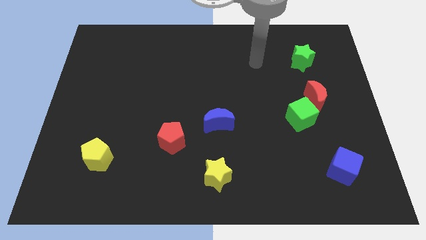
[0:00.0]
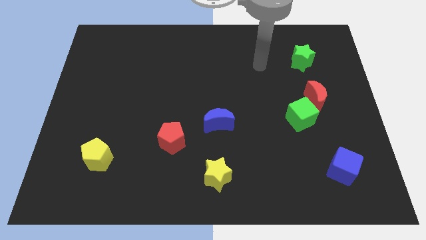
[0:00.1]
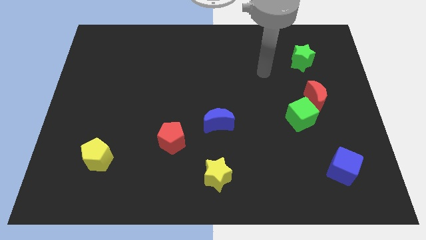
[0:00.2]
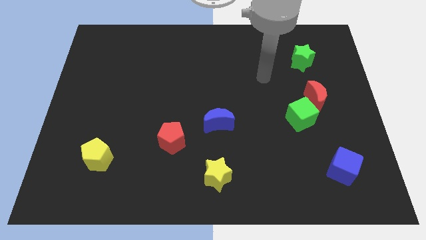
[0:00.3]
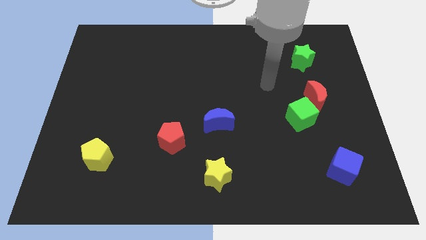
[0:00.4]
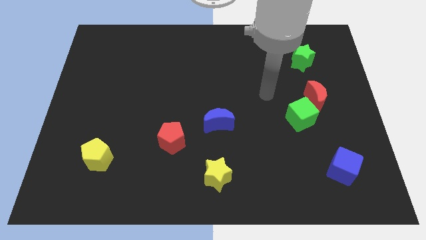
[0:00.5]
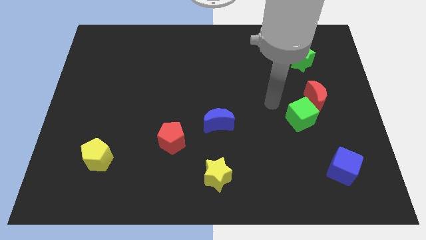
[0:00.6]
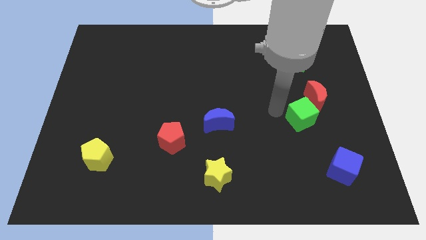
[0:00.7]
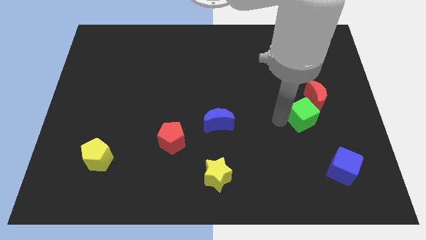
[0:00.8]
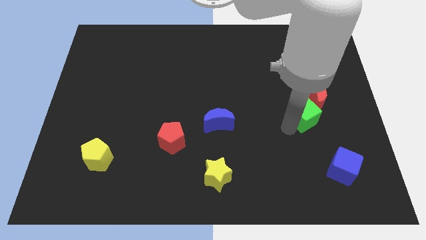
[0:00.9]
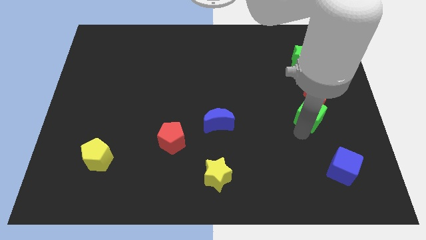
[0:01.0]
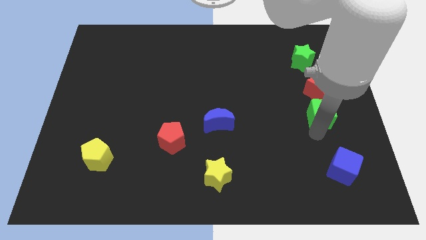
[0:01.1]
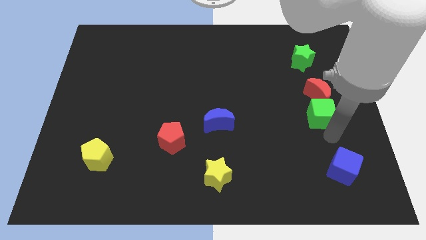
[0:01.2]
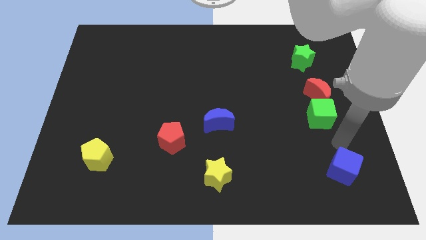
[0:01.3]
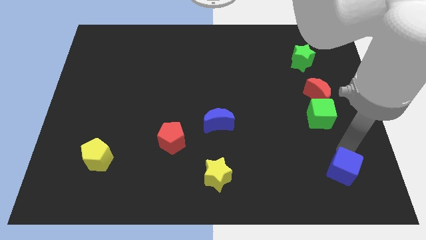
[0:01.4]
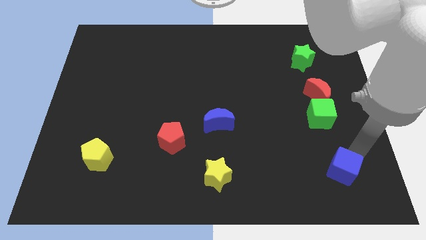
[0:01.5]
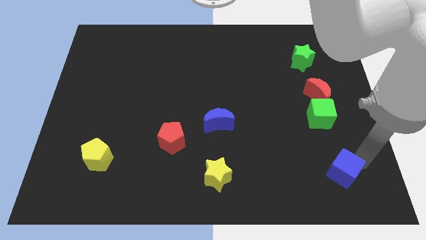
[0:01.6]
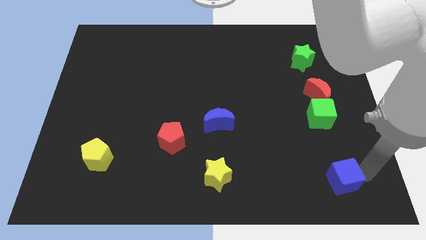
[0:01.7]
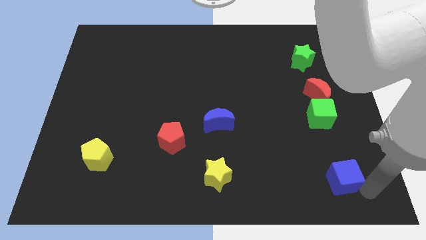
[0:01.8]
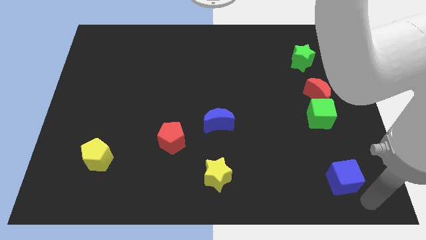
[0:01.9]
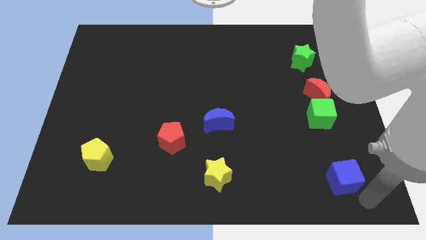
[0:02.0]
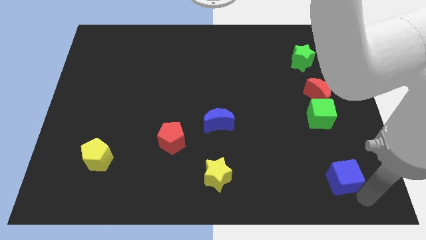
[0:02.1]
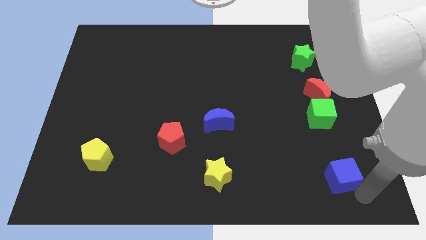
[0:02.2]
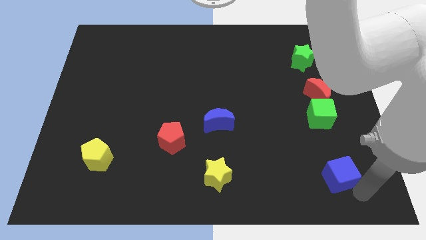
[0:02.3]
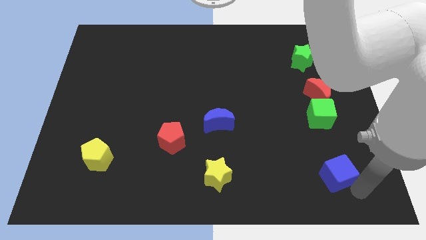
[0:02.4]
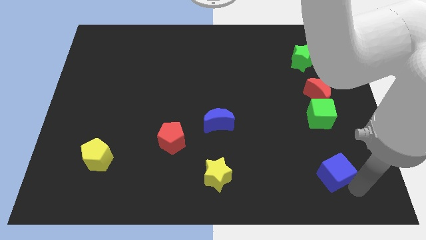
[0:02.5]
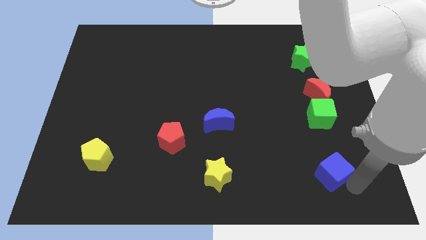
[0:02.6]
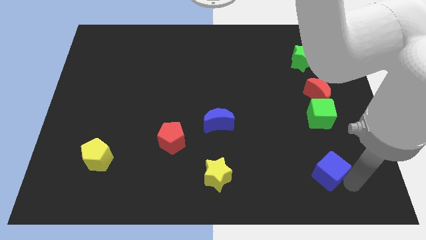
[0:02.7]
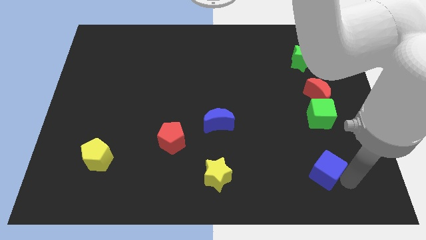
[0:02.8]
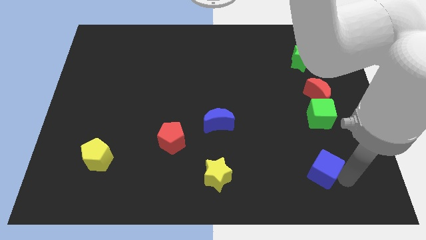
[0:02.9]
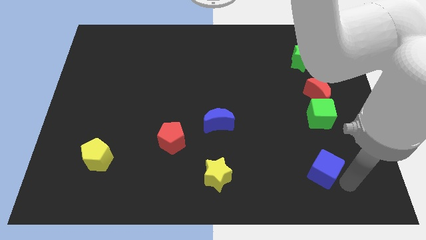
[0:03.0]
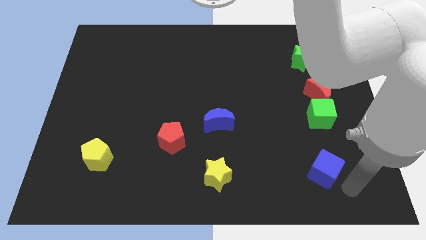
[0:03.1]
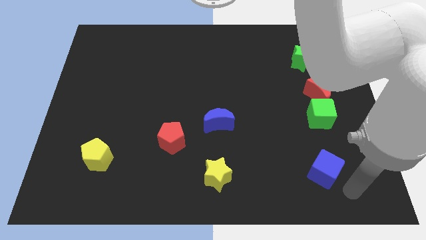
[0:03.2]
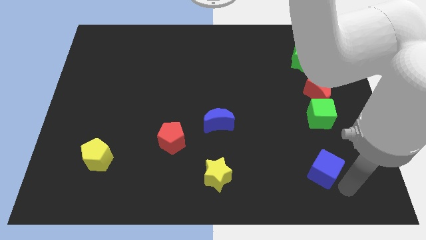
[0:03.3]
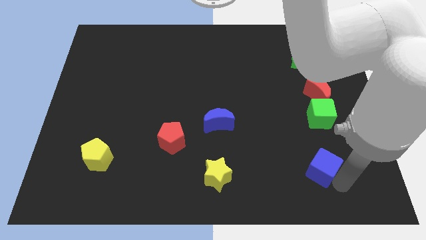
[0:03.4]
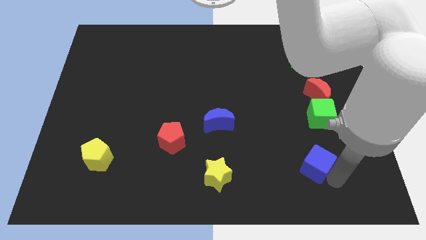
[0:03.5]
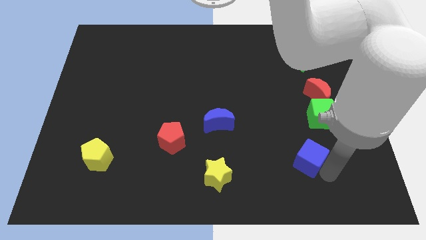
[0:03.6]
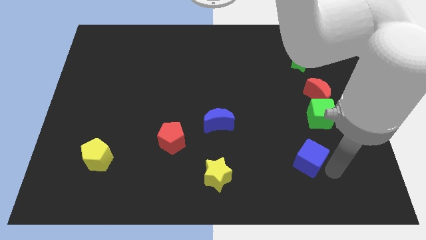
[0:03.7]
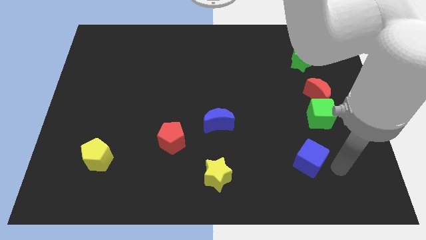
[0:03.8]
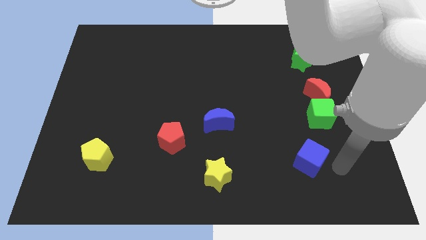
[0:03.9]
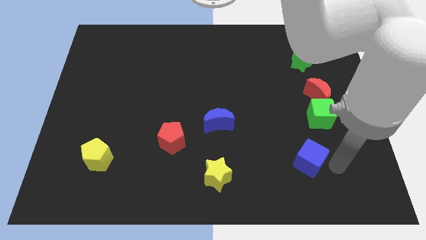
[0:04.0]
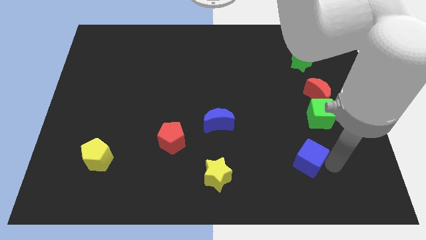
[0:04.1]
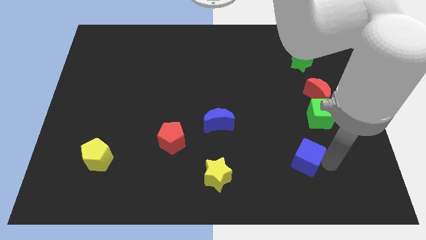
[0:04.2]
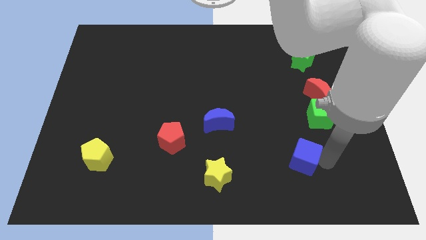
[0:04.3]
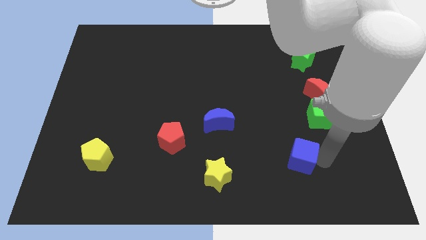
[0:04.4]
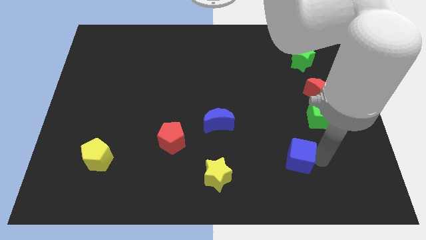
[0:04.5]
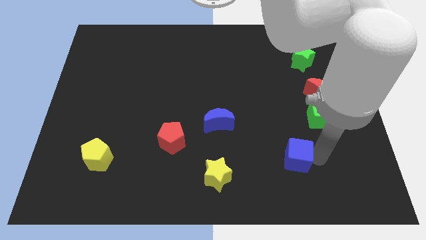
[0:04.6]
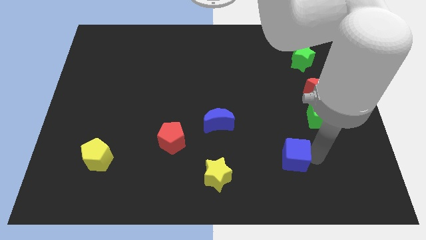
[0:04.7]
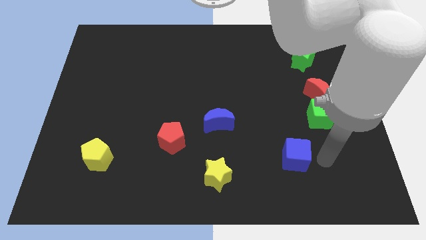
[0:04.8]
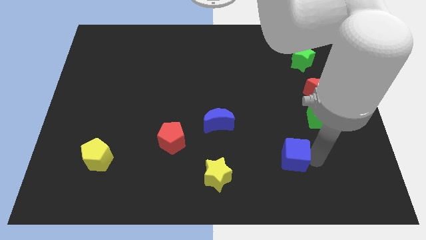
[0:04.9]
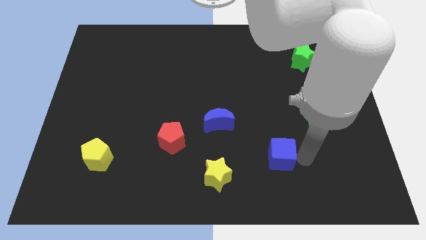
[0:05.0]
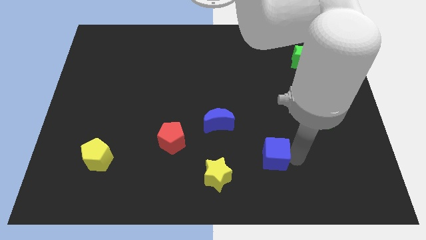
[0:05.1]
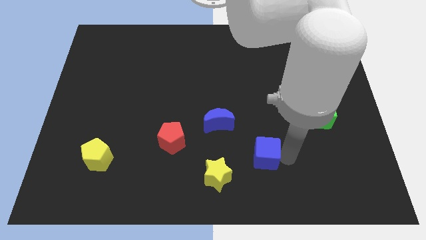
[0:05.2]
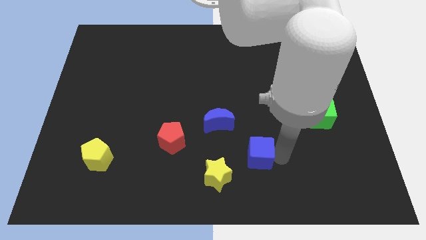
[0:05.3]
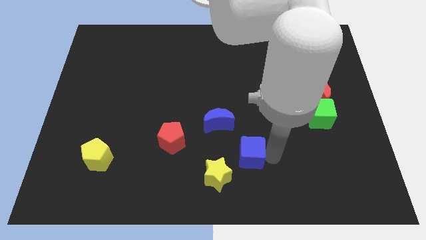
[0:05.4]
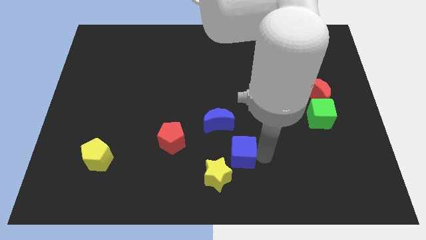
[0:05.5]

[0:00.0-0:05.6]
slide the blue cube to the left

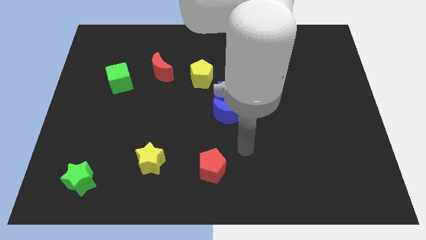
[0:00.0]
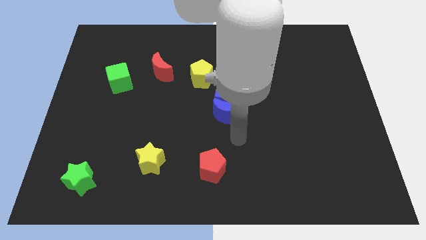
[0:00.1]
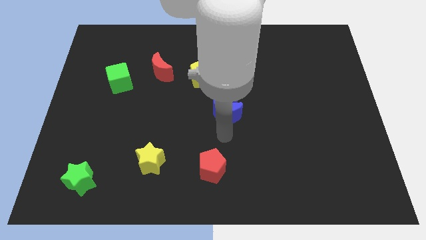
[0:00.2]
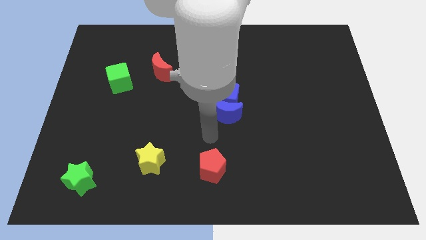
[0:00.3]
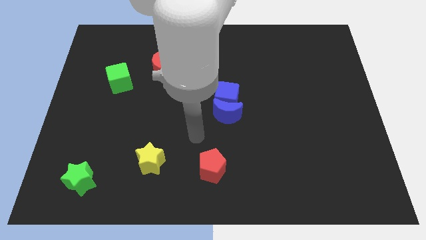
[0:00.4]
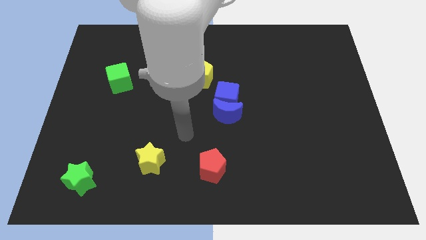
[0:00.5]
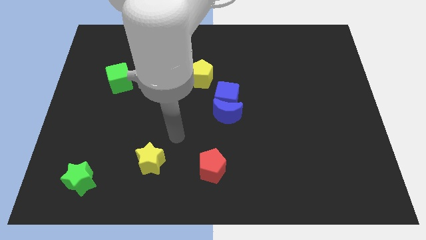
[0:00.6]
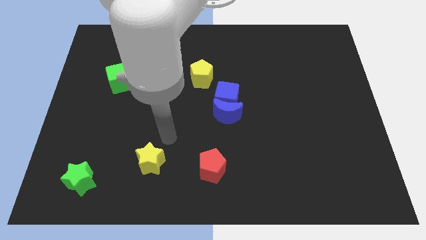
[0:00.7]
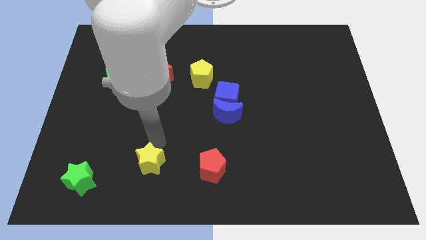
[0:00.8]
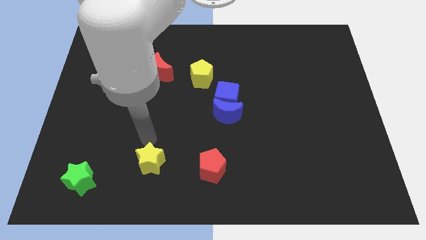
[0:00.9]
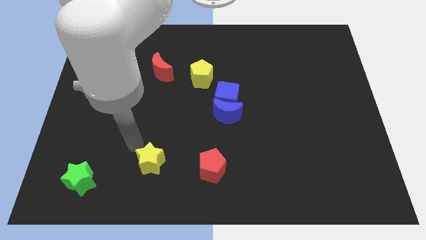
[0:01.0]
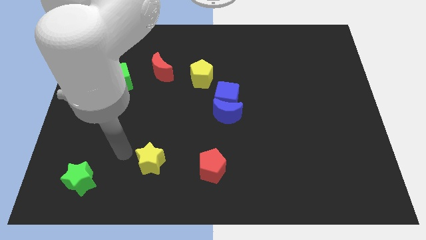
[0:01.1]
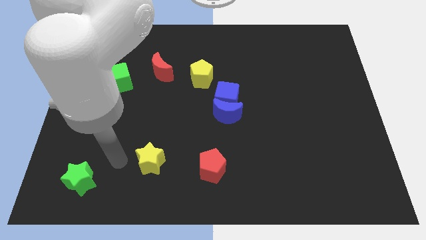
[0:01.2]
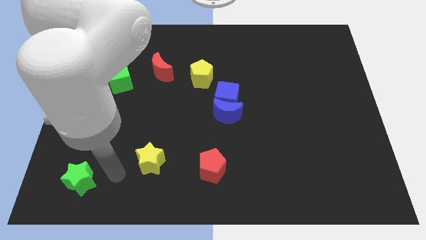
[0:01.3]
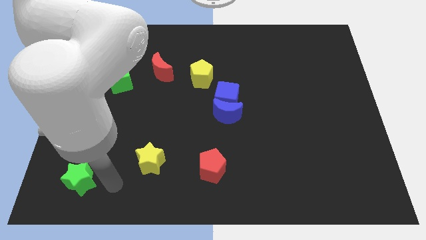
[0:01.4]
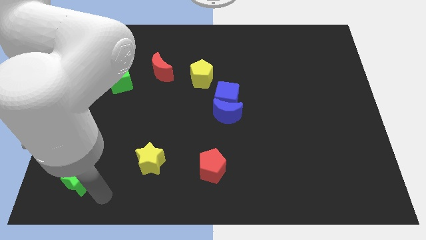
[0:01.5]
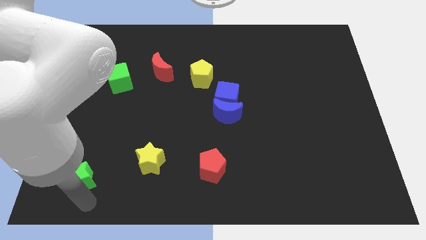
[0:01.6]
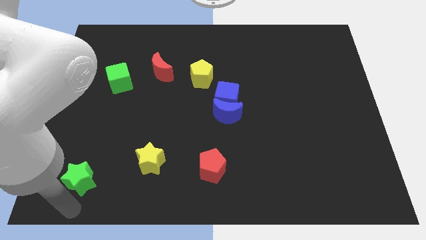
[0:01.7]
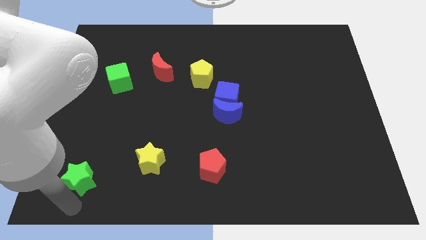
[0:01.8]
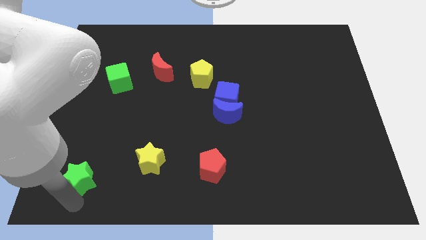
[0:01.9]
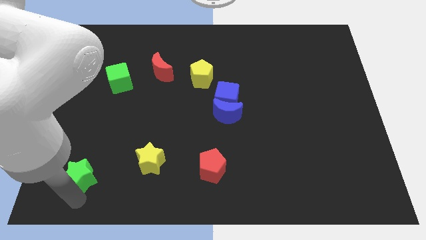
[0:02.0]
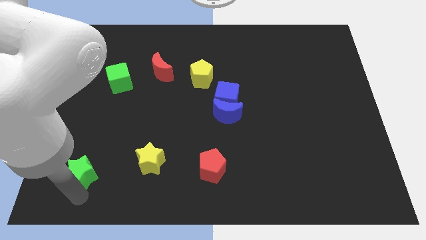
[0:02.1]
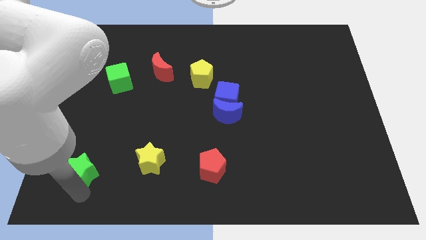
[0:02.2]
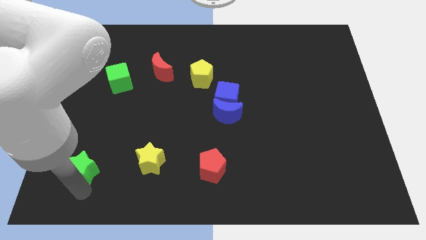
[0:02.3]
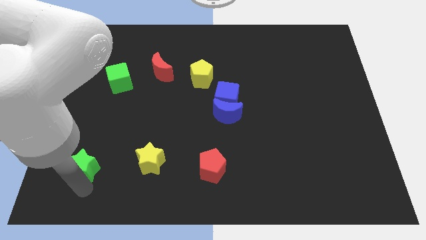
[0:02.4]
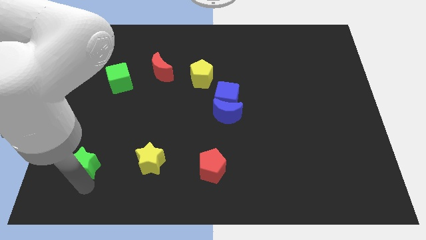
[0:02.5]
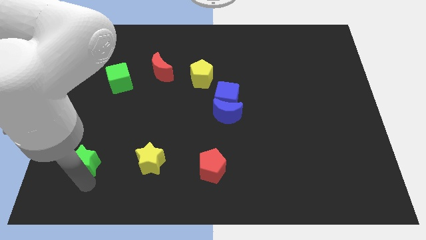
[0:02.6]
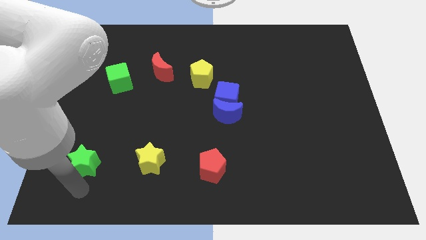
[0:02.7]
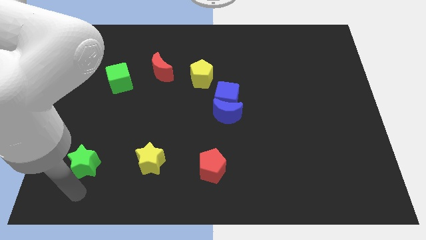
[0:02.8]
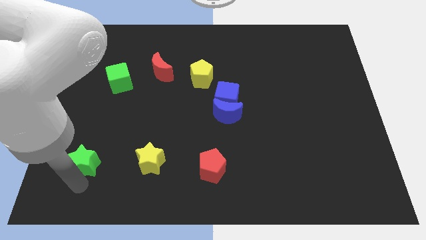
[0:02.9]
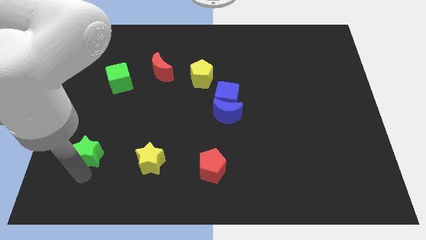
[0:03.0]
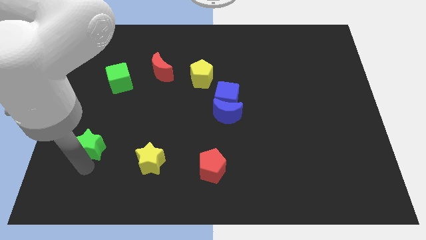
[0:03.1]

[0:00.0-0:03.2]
slide the green star a little up
